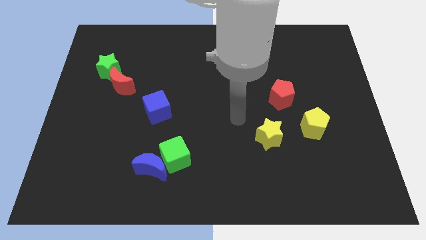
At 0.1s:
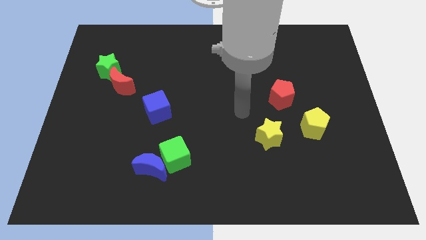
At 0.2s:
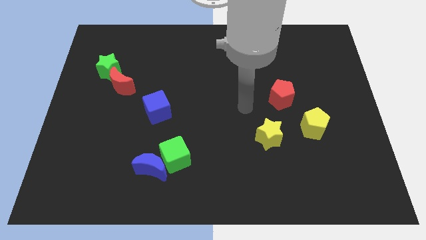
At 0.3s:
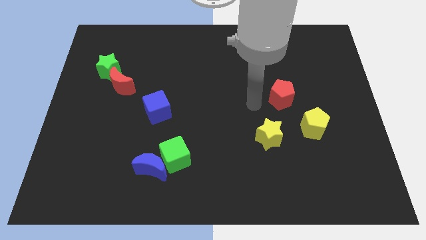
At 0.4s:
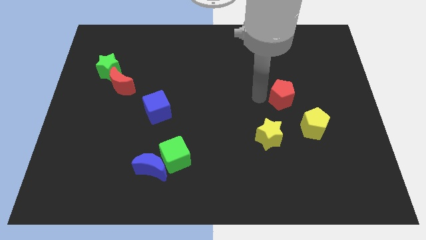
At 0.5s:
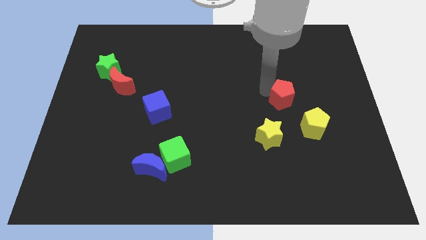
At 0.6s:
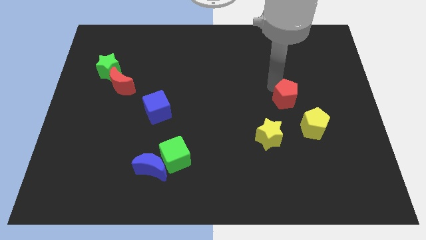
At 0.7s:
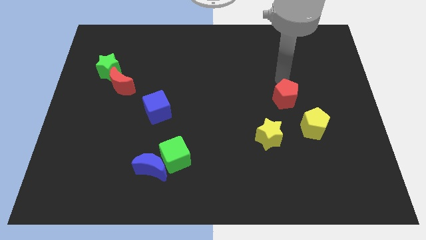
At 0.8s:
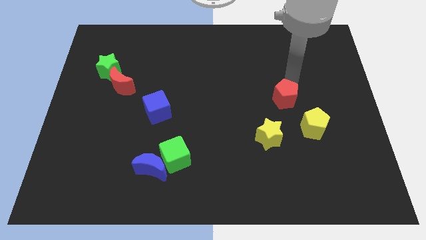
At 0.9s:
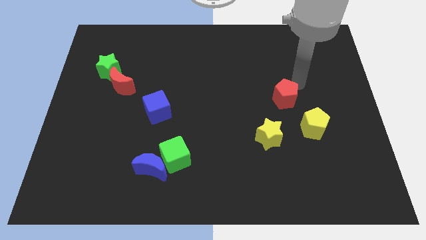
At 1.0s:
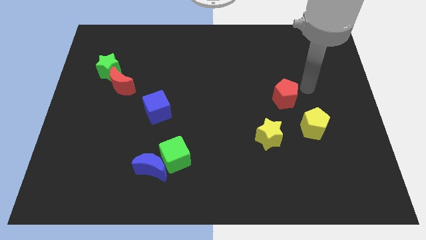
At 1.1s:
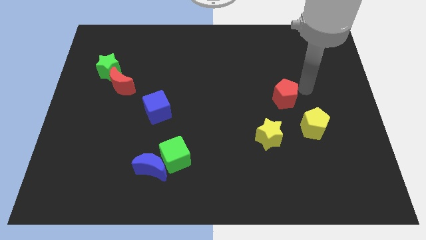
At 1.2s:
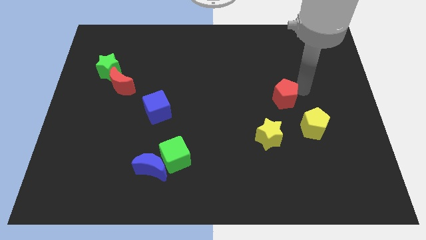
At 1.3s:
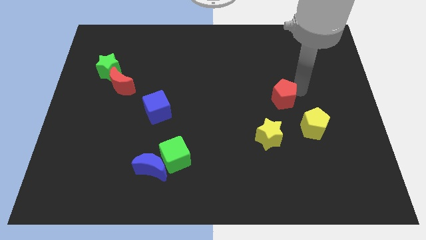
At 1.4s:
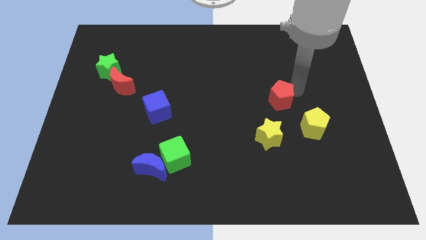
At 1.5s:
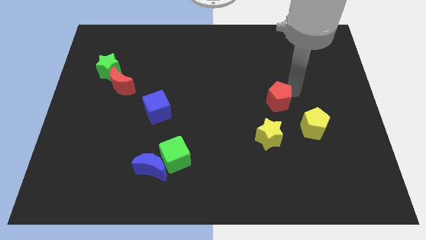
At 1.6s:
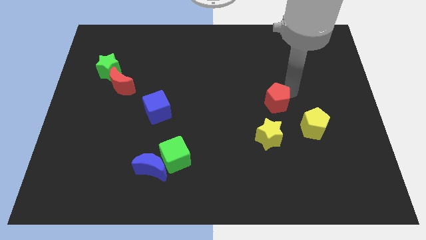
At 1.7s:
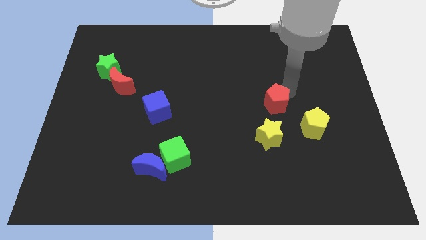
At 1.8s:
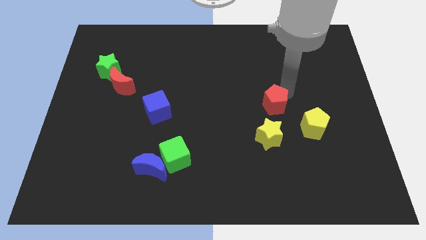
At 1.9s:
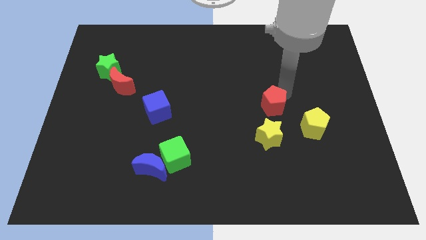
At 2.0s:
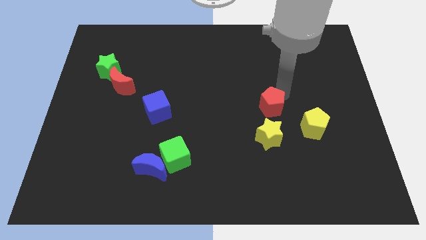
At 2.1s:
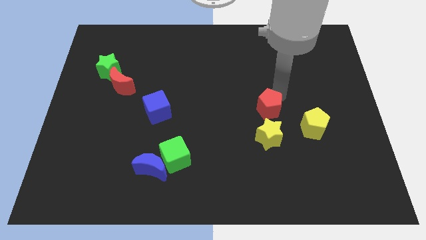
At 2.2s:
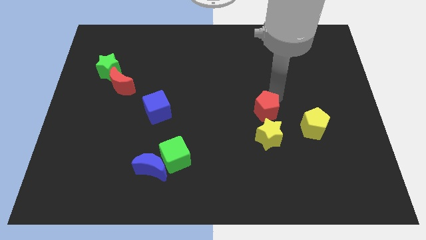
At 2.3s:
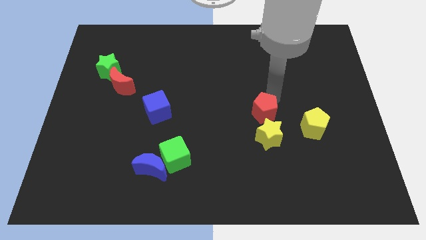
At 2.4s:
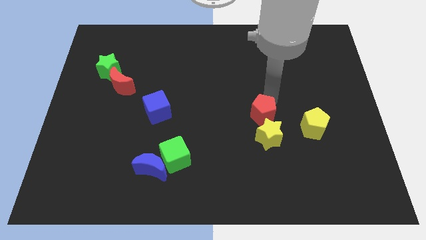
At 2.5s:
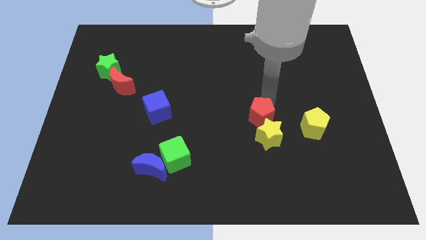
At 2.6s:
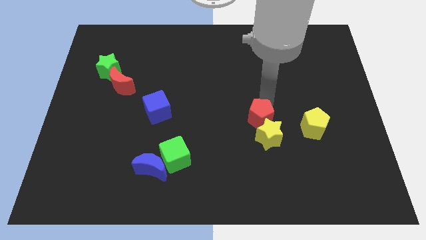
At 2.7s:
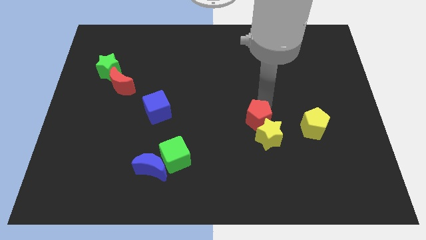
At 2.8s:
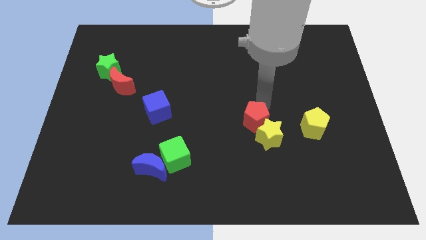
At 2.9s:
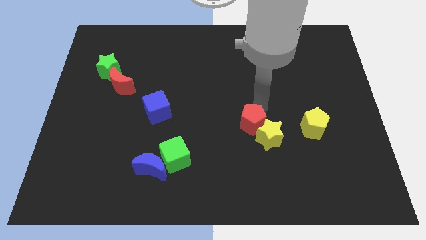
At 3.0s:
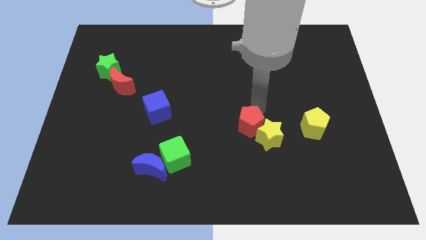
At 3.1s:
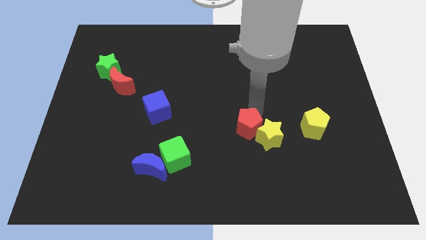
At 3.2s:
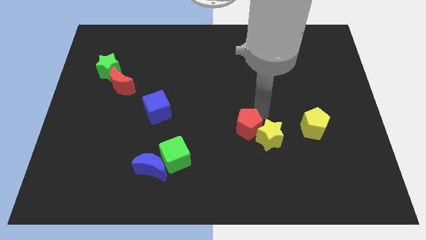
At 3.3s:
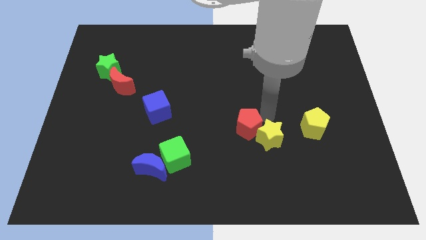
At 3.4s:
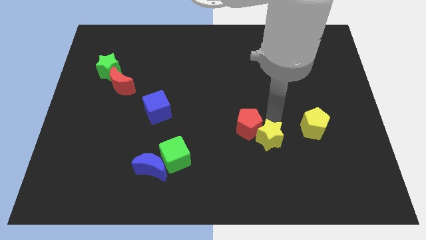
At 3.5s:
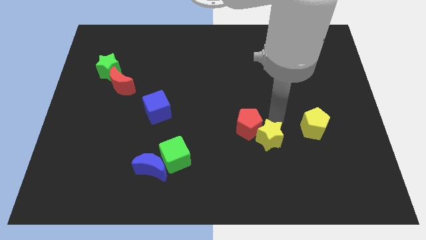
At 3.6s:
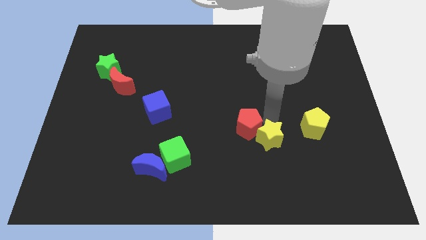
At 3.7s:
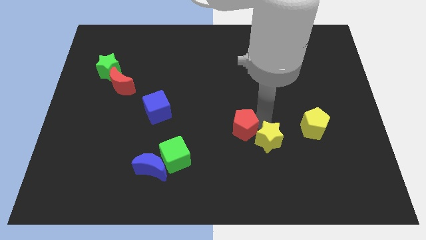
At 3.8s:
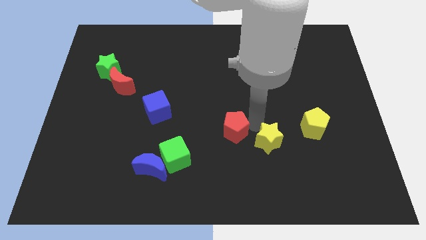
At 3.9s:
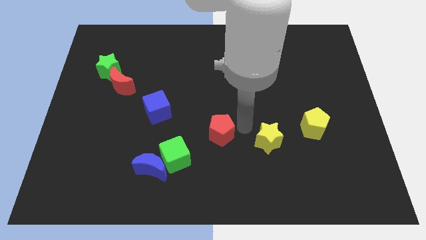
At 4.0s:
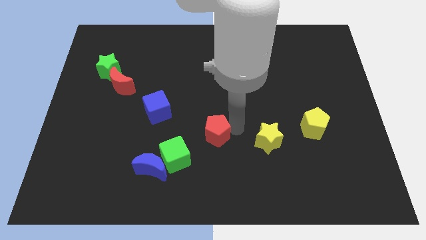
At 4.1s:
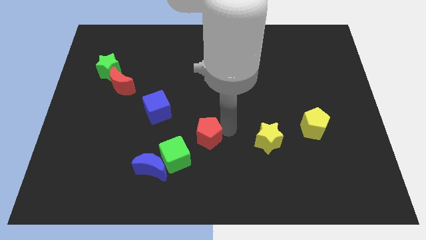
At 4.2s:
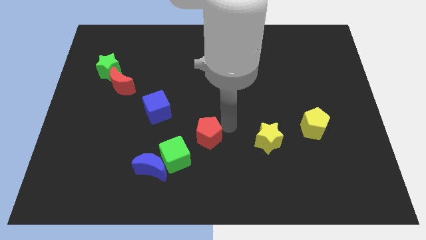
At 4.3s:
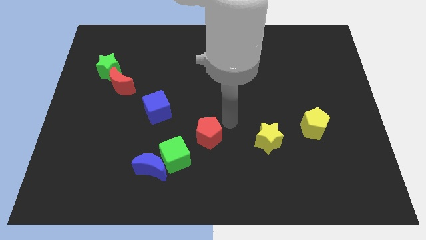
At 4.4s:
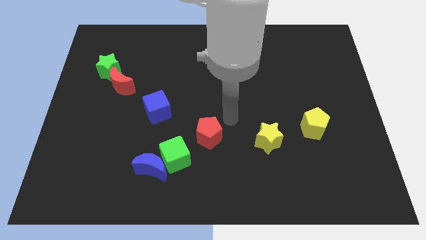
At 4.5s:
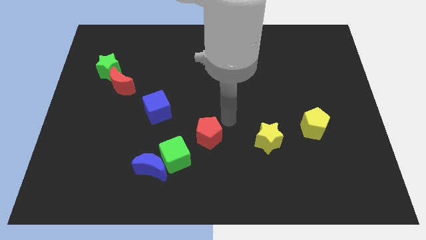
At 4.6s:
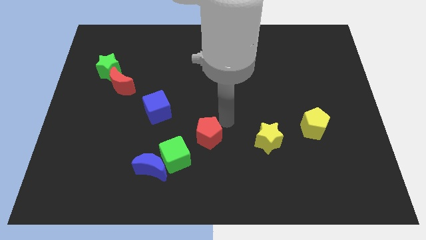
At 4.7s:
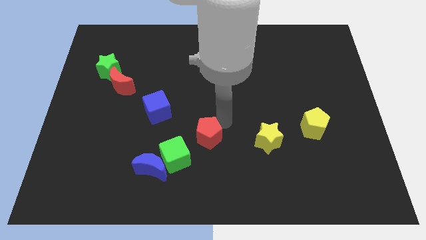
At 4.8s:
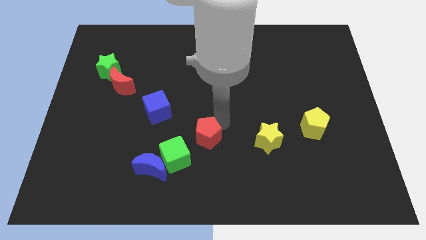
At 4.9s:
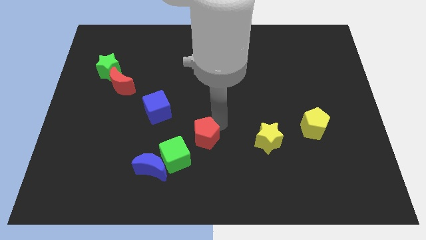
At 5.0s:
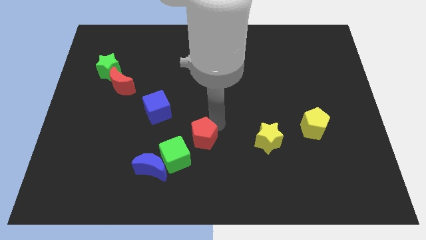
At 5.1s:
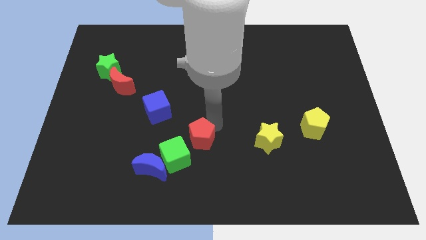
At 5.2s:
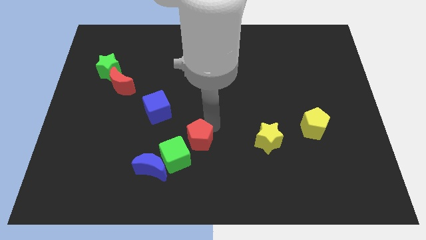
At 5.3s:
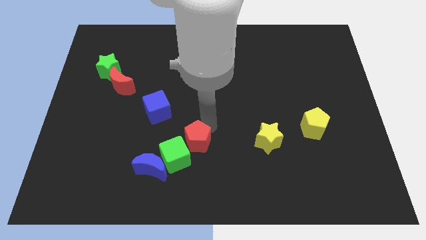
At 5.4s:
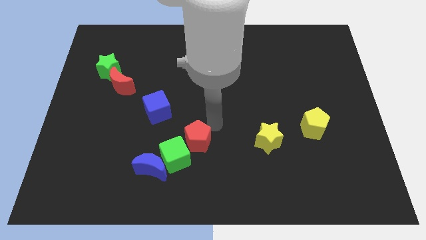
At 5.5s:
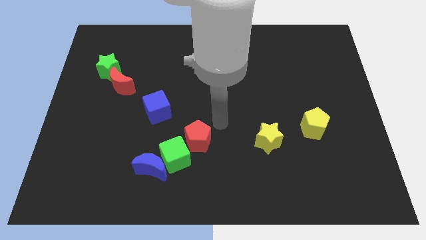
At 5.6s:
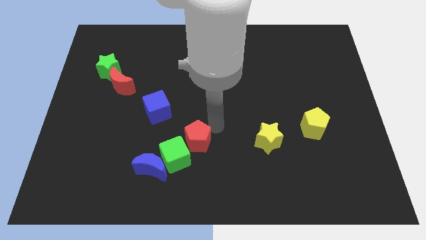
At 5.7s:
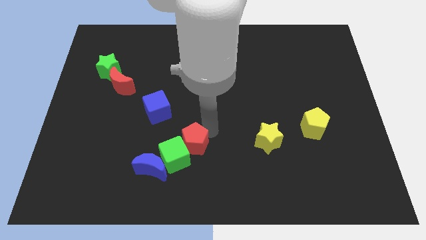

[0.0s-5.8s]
push the red pentagon to the green cube

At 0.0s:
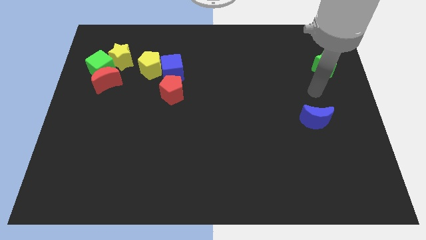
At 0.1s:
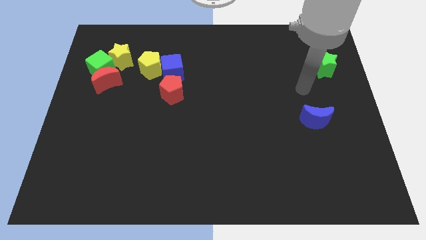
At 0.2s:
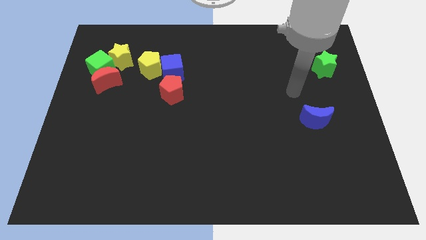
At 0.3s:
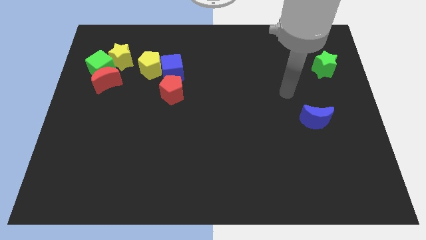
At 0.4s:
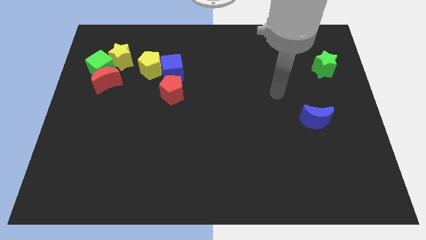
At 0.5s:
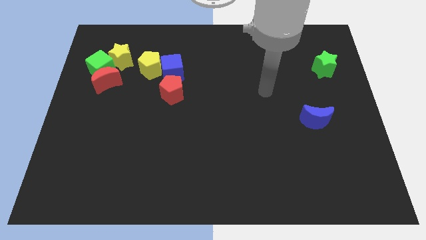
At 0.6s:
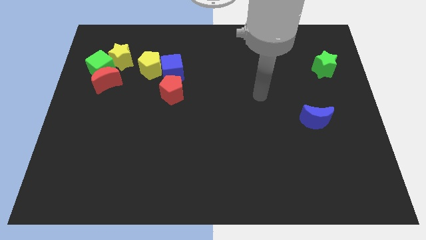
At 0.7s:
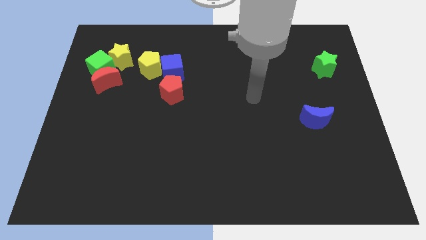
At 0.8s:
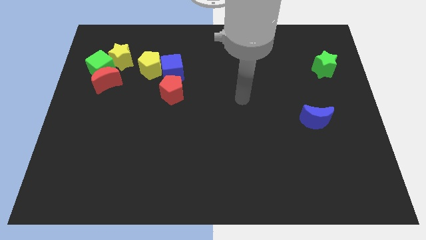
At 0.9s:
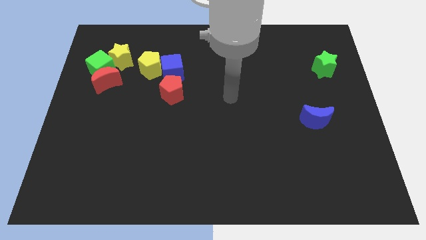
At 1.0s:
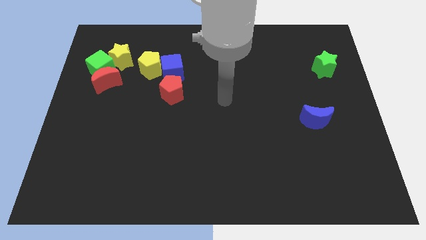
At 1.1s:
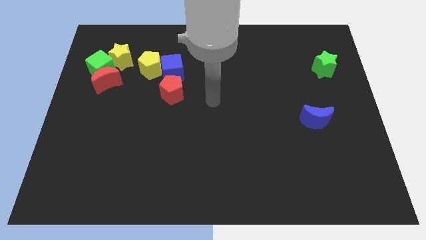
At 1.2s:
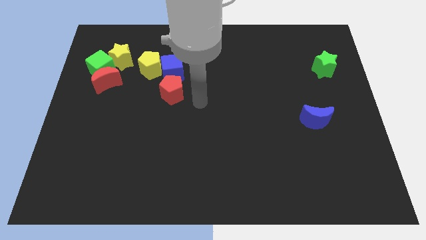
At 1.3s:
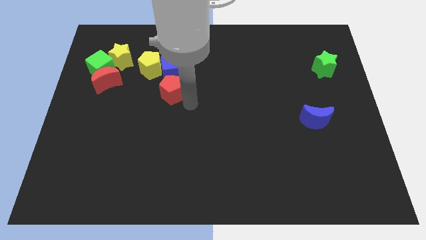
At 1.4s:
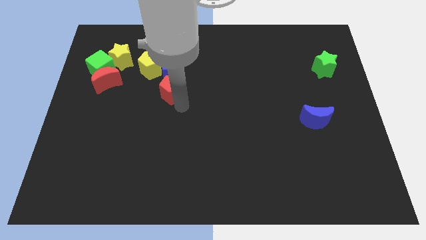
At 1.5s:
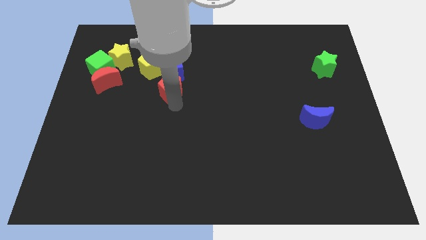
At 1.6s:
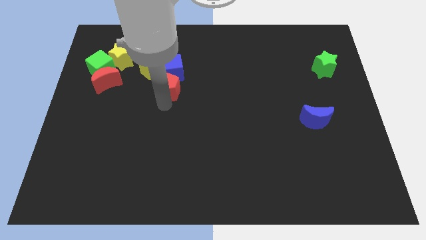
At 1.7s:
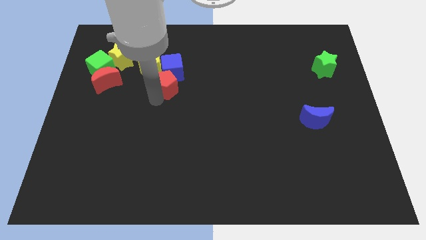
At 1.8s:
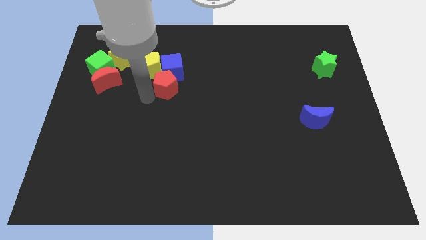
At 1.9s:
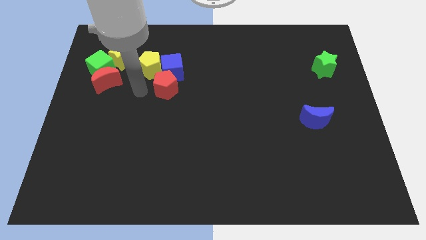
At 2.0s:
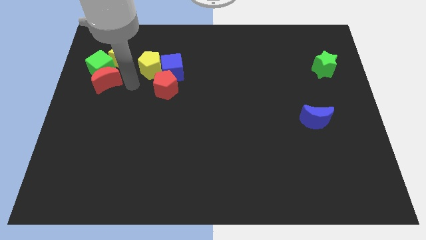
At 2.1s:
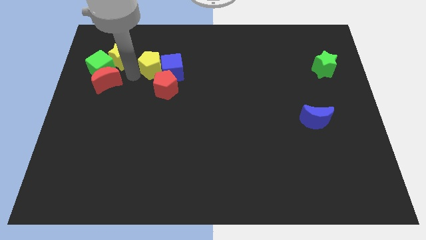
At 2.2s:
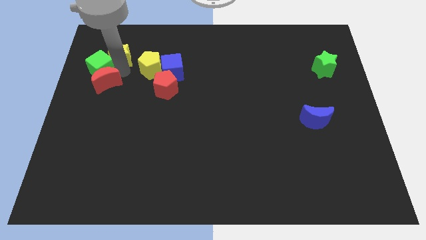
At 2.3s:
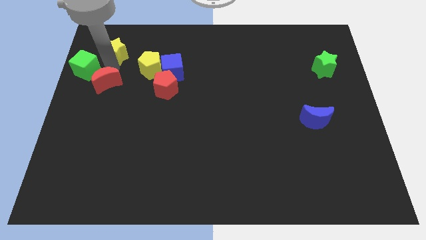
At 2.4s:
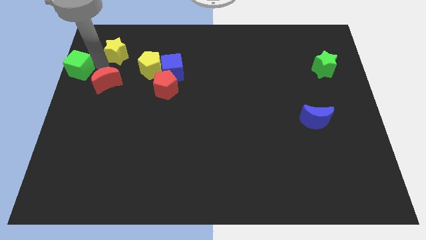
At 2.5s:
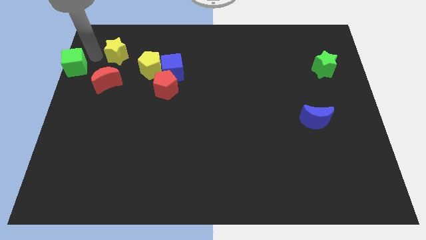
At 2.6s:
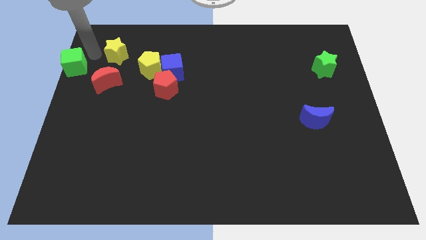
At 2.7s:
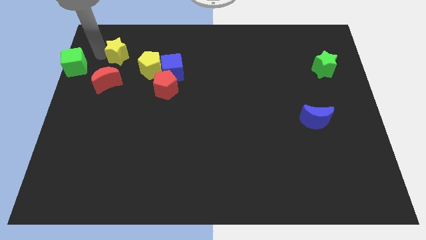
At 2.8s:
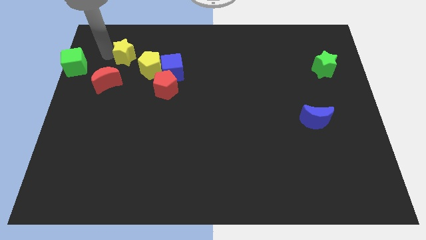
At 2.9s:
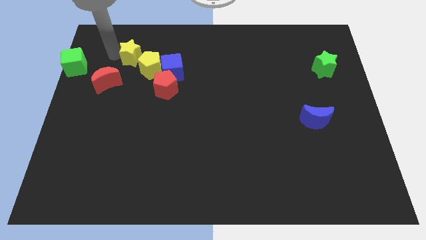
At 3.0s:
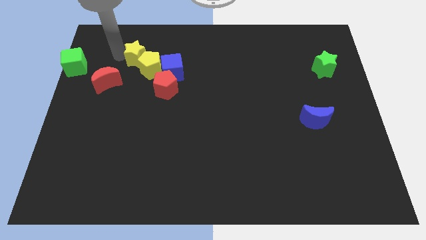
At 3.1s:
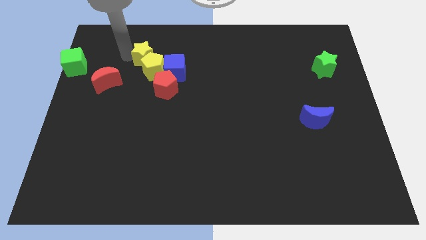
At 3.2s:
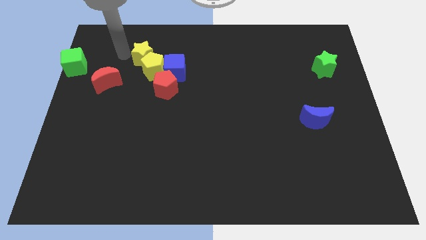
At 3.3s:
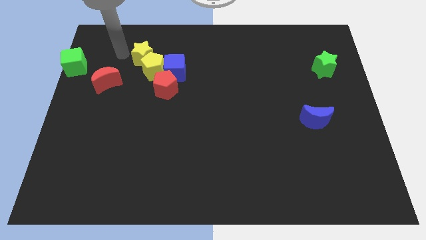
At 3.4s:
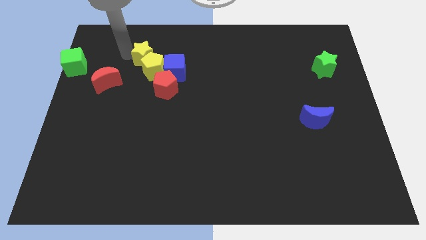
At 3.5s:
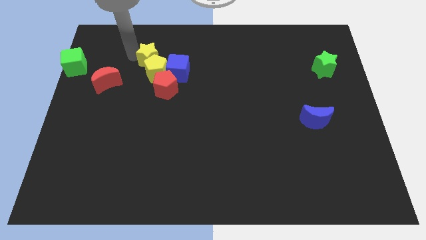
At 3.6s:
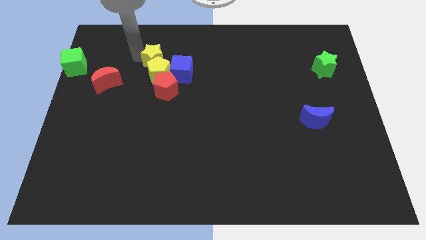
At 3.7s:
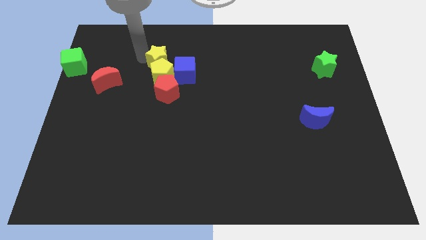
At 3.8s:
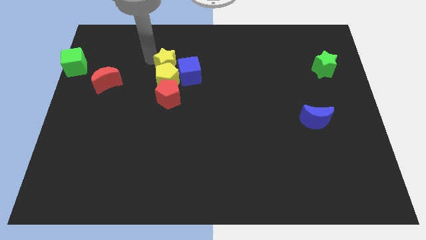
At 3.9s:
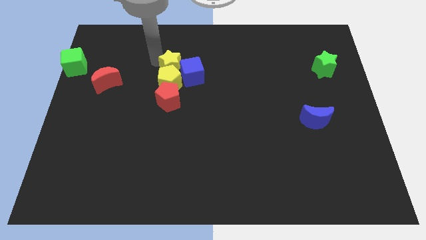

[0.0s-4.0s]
move the yellow star close to the blue cube
